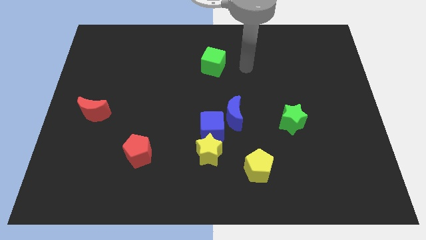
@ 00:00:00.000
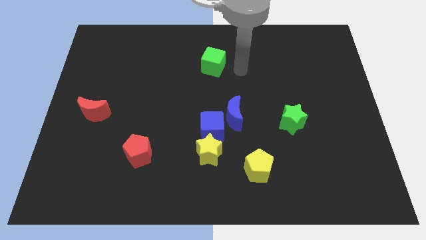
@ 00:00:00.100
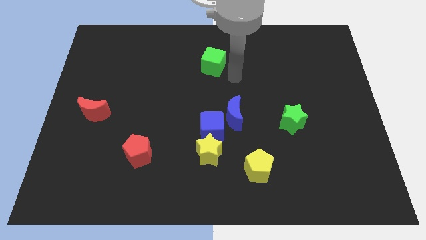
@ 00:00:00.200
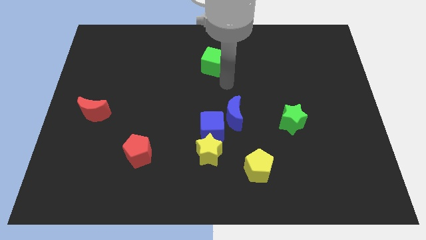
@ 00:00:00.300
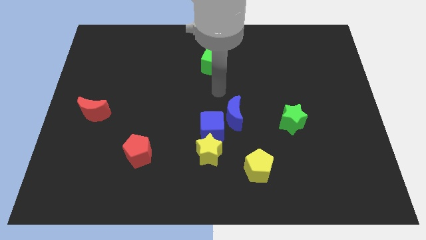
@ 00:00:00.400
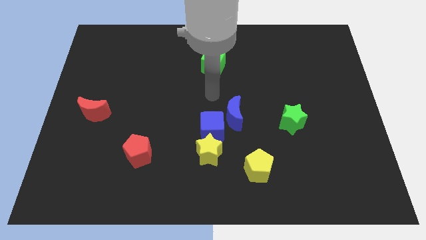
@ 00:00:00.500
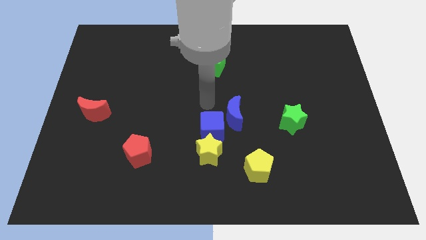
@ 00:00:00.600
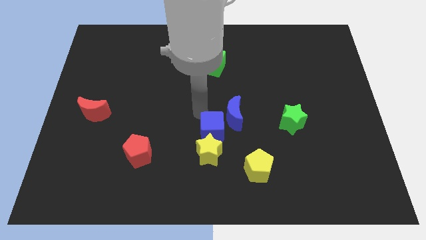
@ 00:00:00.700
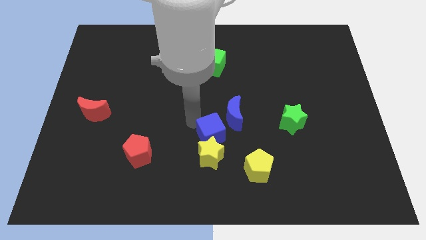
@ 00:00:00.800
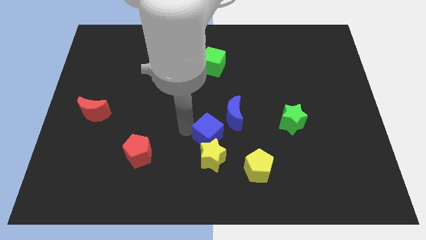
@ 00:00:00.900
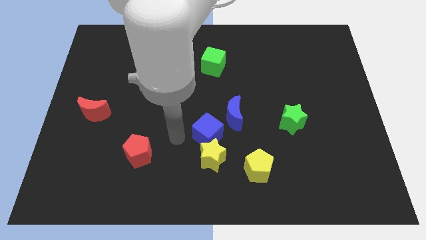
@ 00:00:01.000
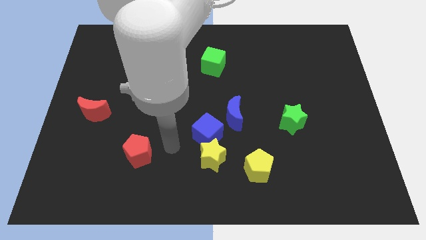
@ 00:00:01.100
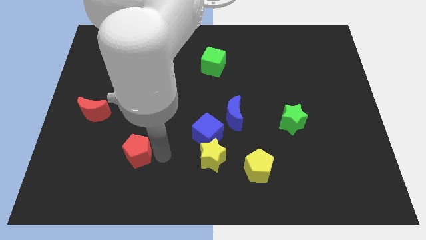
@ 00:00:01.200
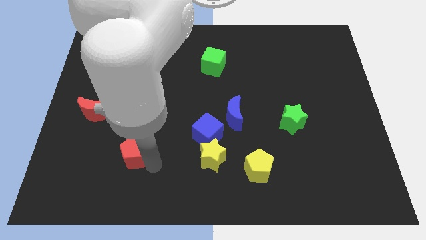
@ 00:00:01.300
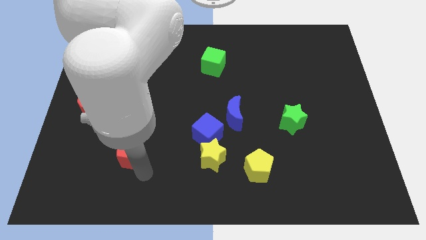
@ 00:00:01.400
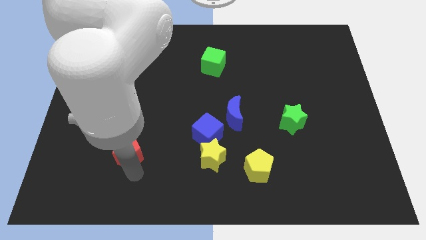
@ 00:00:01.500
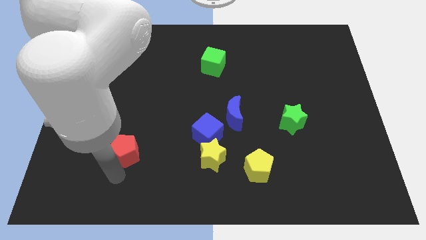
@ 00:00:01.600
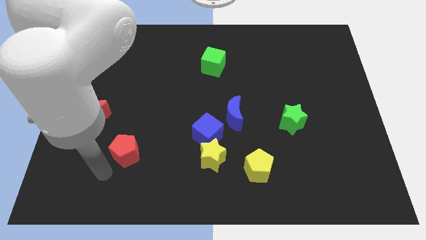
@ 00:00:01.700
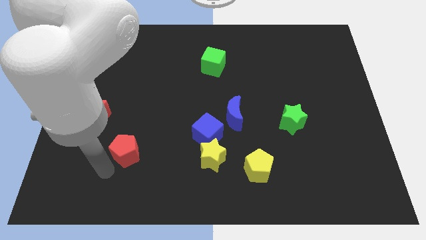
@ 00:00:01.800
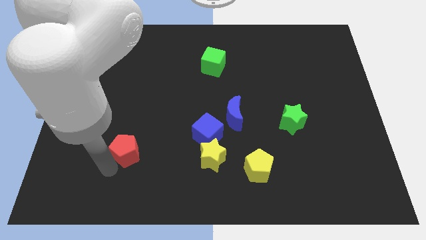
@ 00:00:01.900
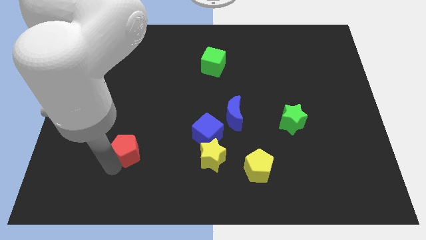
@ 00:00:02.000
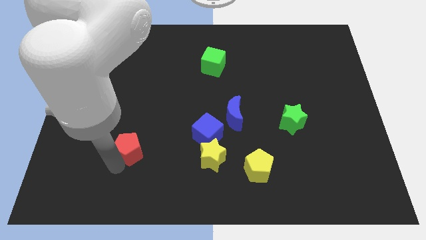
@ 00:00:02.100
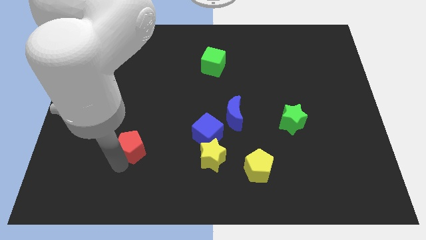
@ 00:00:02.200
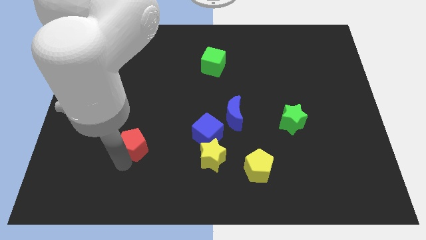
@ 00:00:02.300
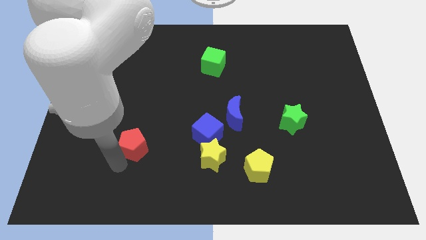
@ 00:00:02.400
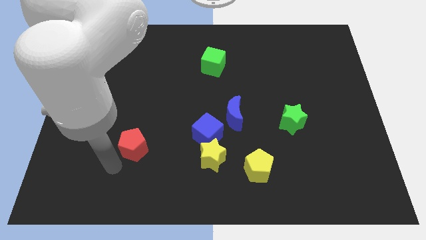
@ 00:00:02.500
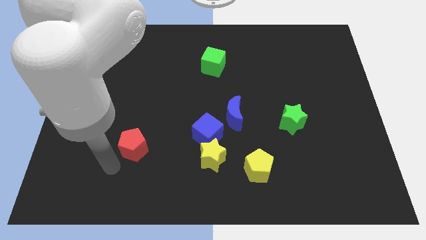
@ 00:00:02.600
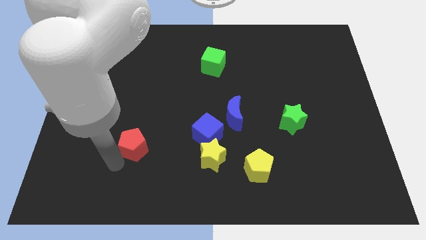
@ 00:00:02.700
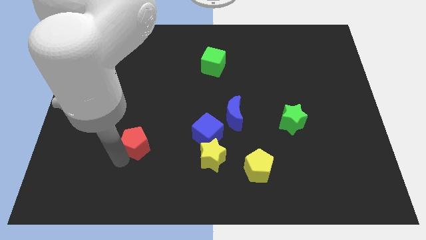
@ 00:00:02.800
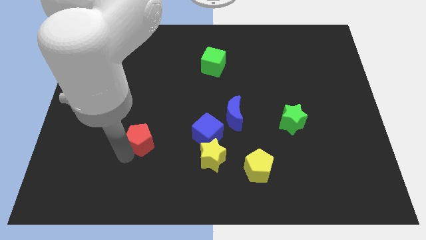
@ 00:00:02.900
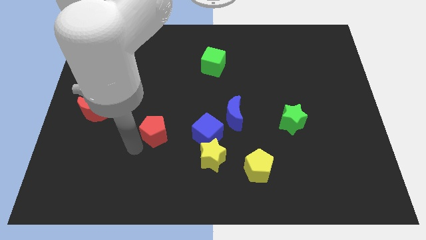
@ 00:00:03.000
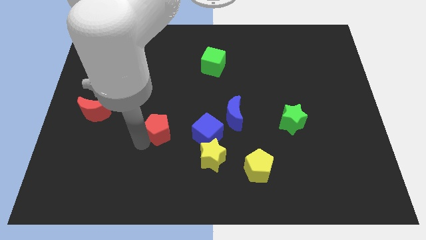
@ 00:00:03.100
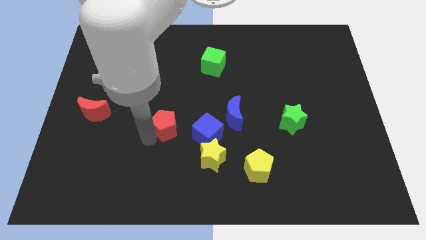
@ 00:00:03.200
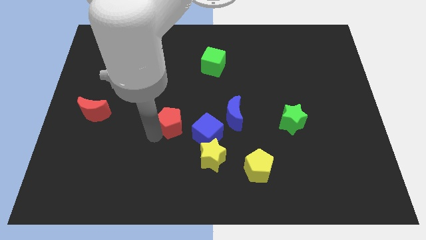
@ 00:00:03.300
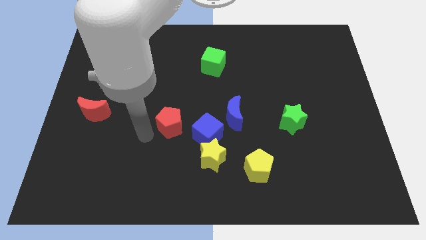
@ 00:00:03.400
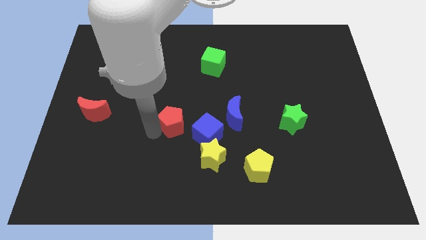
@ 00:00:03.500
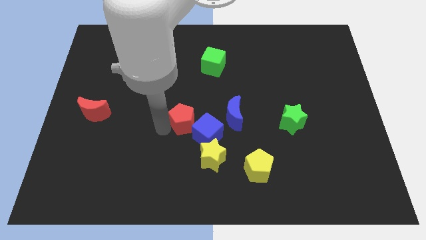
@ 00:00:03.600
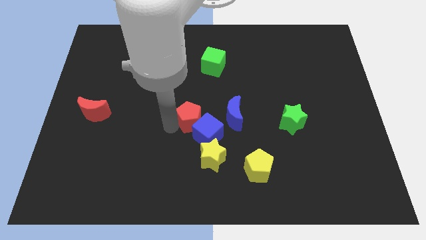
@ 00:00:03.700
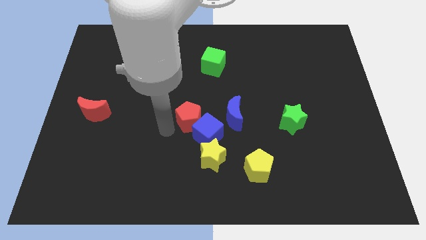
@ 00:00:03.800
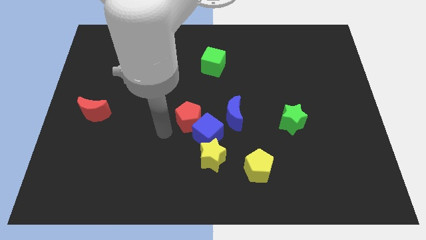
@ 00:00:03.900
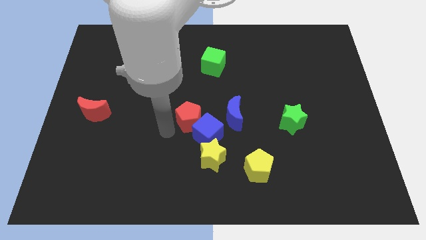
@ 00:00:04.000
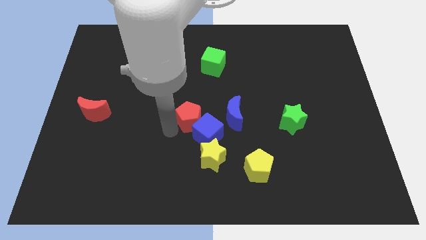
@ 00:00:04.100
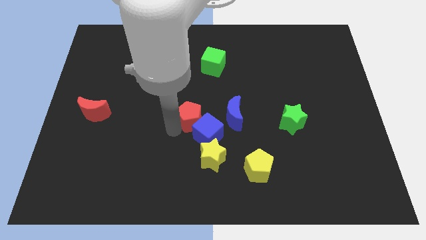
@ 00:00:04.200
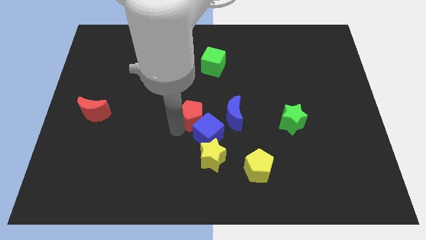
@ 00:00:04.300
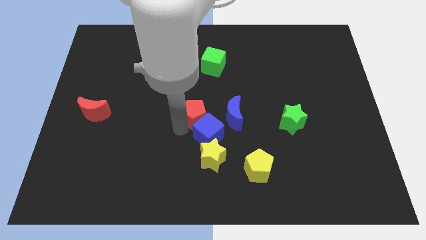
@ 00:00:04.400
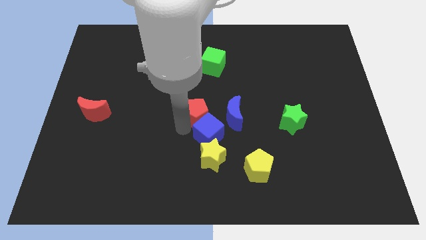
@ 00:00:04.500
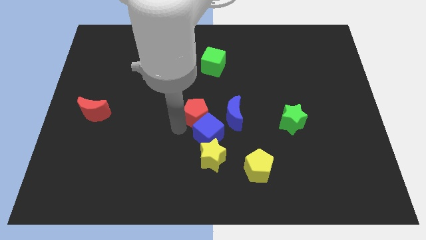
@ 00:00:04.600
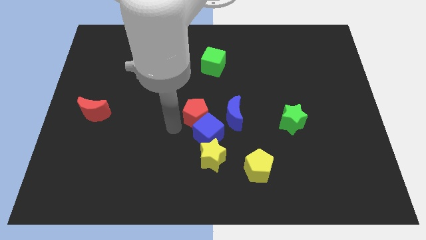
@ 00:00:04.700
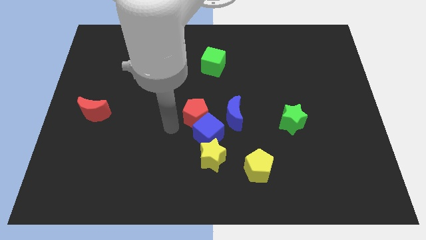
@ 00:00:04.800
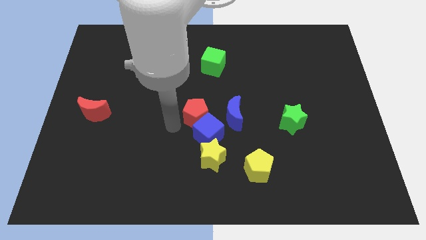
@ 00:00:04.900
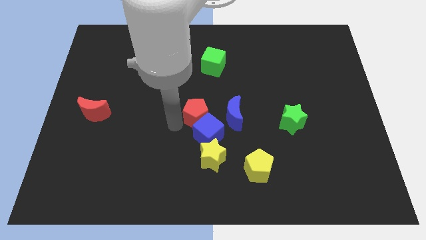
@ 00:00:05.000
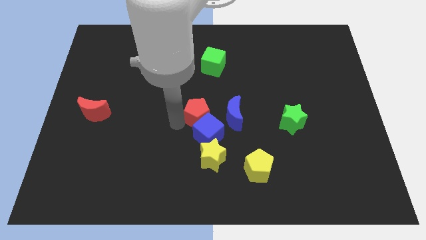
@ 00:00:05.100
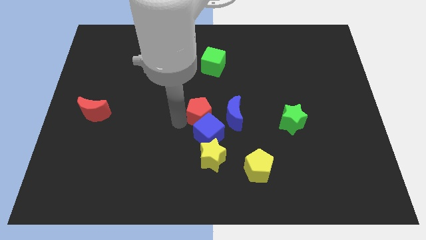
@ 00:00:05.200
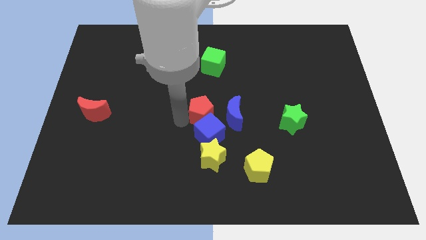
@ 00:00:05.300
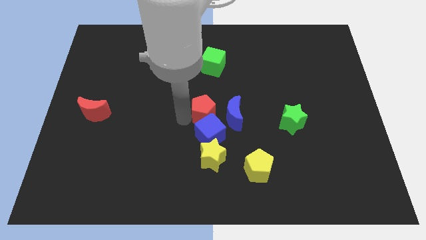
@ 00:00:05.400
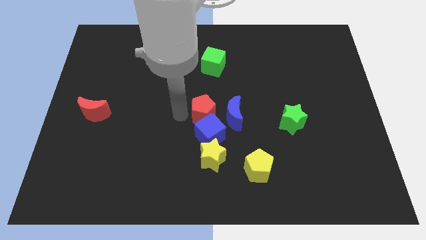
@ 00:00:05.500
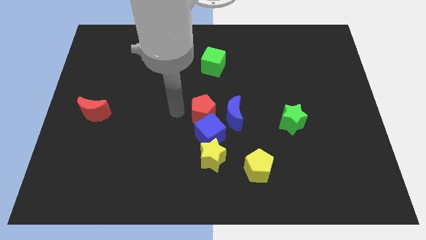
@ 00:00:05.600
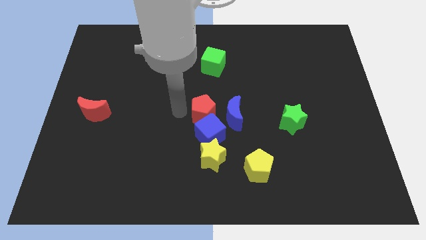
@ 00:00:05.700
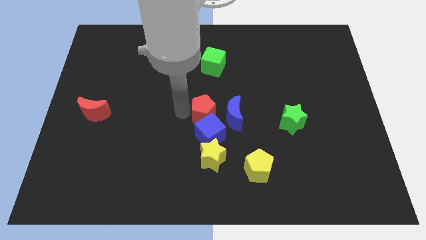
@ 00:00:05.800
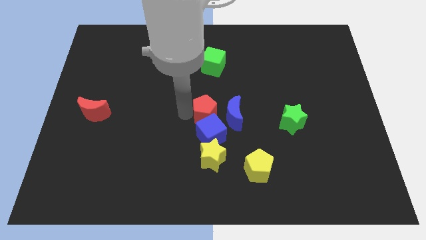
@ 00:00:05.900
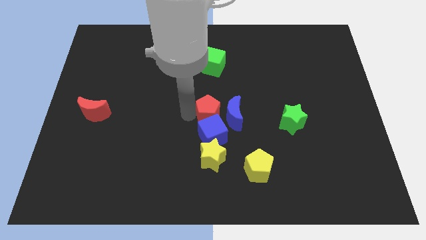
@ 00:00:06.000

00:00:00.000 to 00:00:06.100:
slide the red pentagon next to the blue moon
